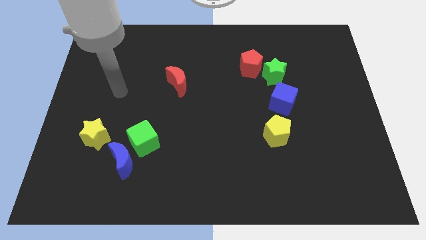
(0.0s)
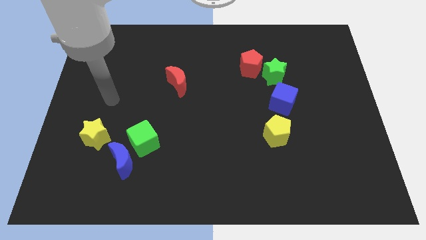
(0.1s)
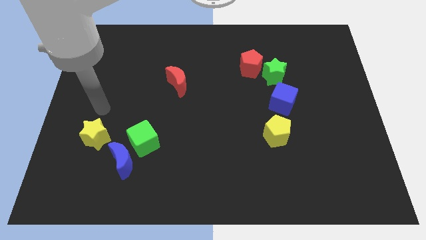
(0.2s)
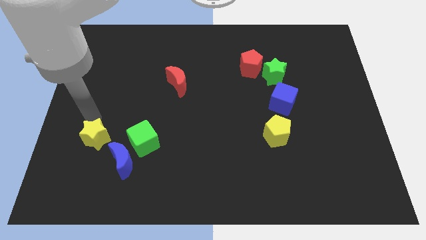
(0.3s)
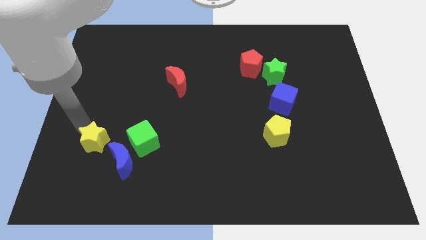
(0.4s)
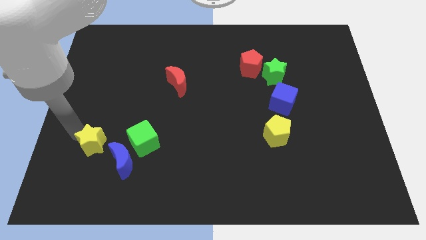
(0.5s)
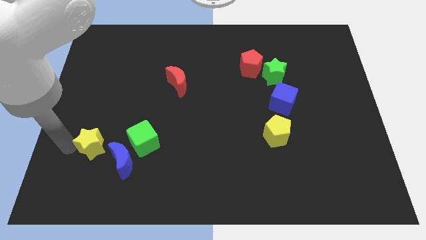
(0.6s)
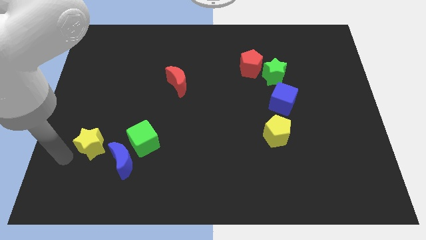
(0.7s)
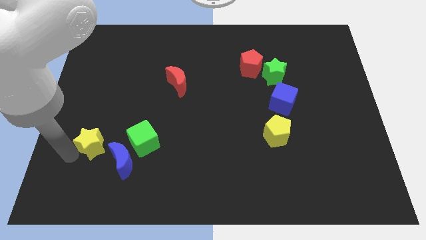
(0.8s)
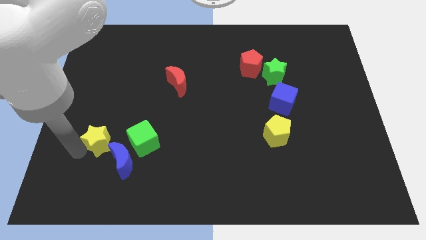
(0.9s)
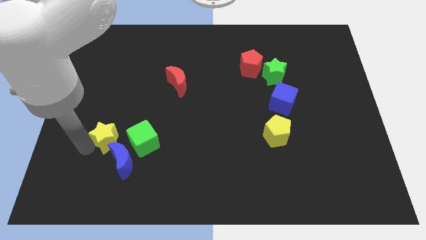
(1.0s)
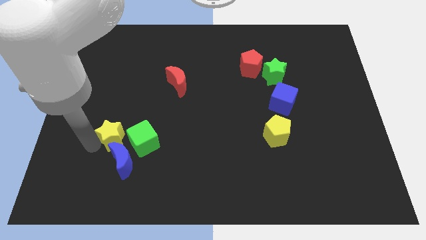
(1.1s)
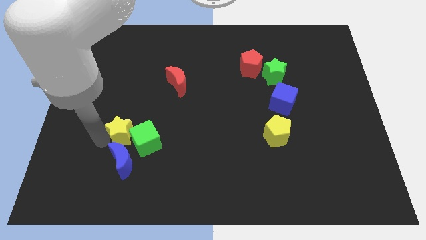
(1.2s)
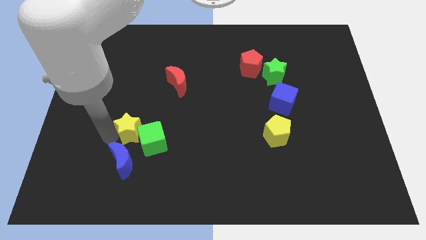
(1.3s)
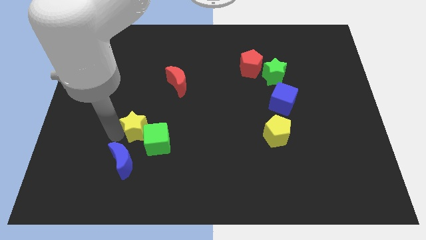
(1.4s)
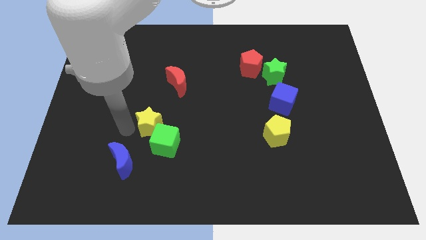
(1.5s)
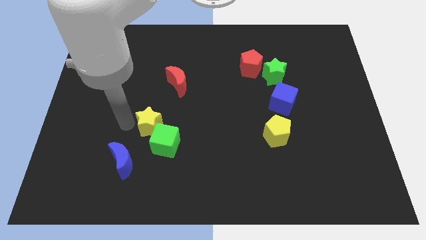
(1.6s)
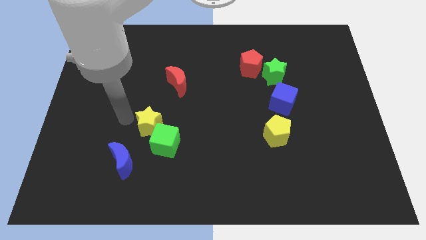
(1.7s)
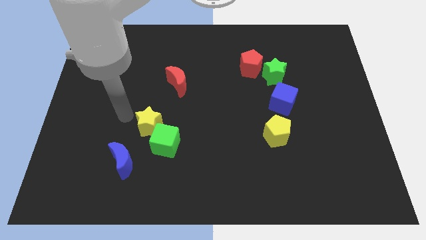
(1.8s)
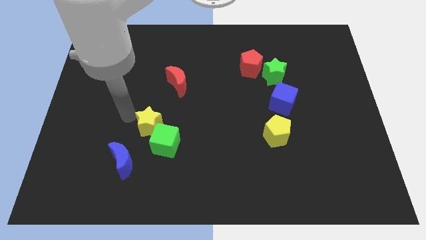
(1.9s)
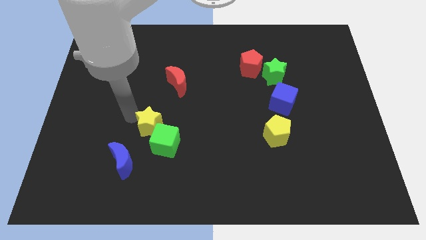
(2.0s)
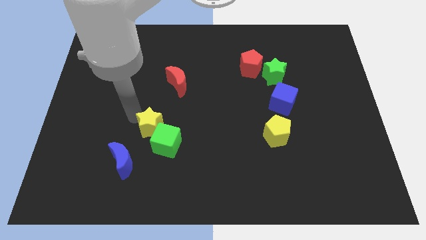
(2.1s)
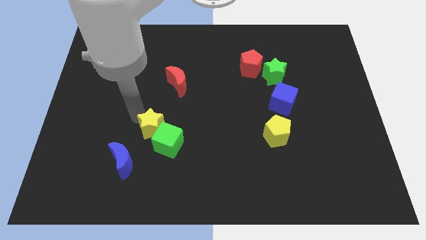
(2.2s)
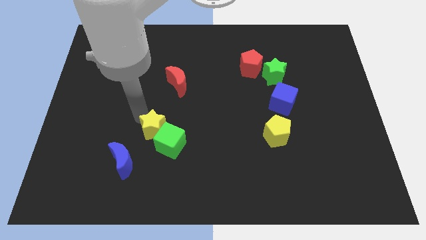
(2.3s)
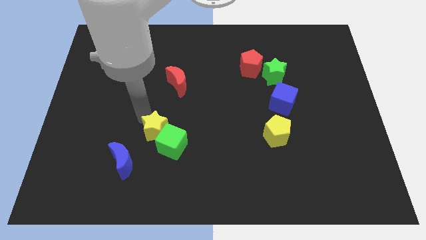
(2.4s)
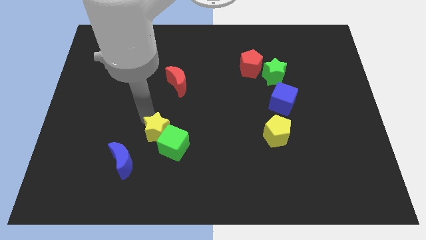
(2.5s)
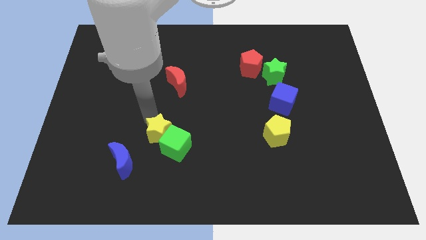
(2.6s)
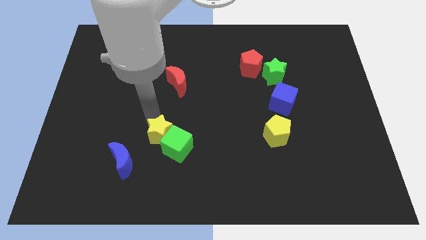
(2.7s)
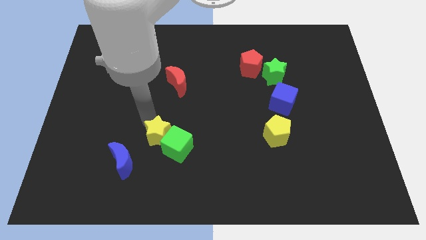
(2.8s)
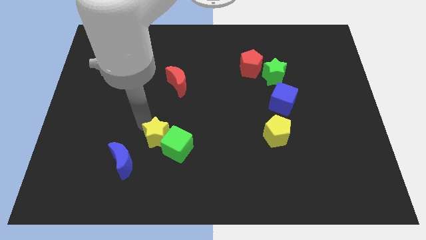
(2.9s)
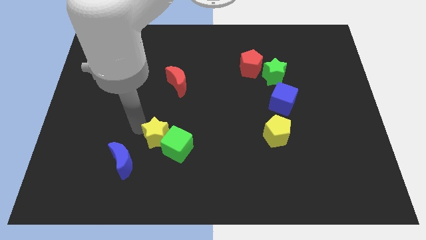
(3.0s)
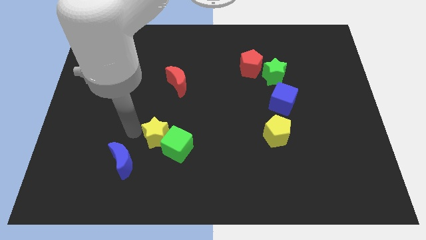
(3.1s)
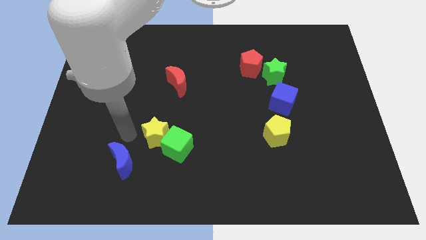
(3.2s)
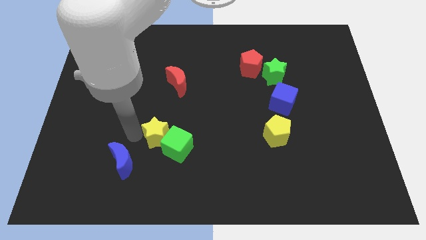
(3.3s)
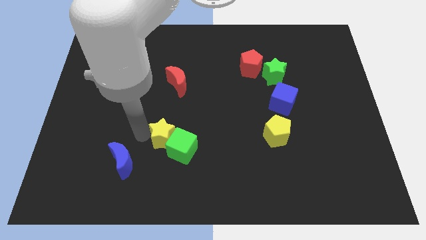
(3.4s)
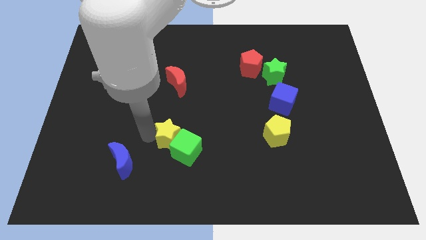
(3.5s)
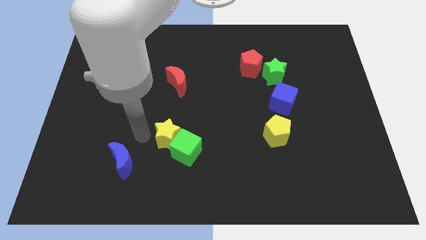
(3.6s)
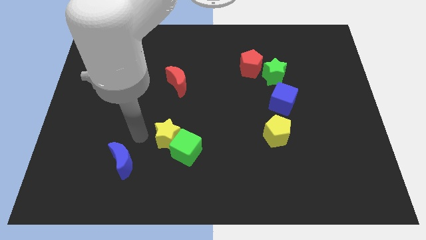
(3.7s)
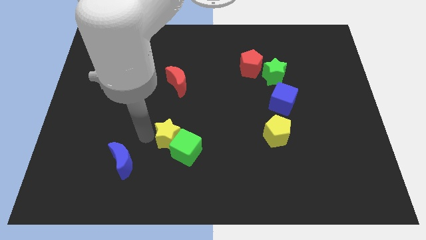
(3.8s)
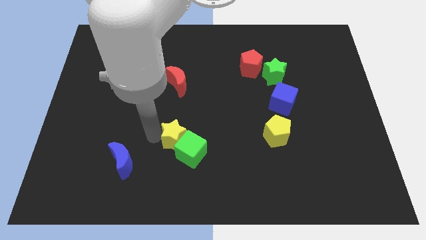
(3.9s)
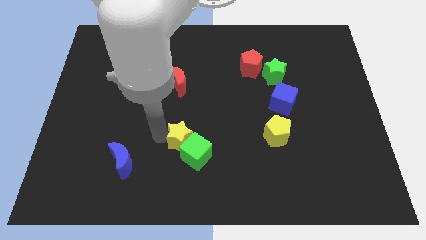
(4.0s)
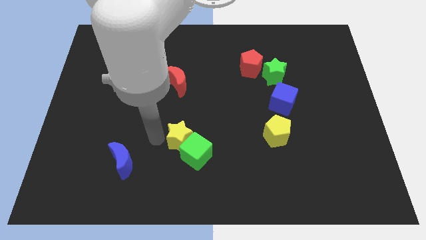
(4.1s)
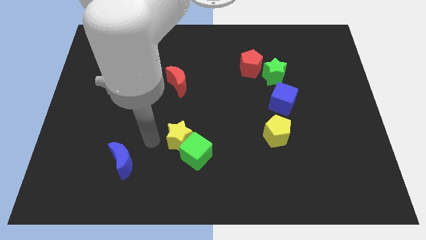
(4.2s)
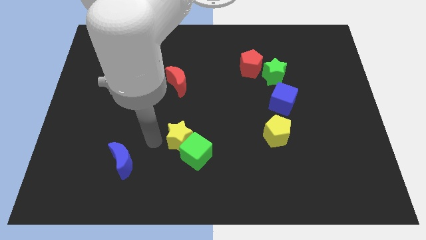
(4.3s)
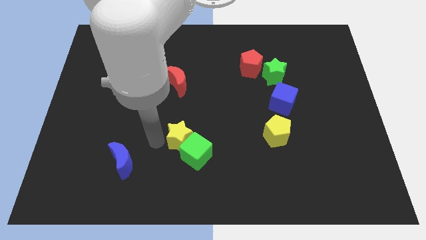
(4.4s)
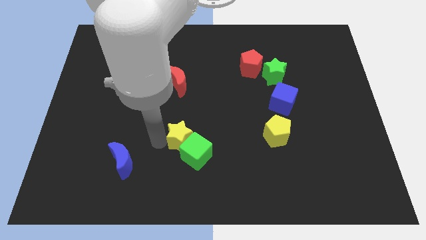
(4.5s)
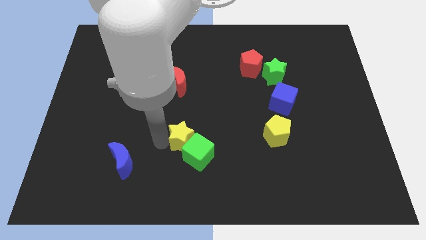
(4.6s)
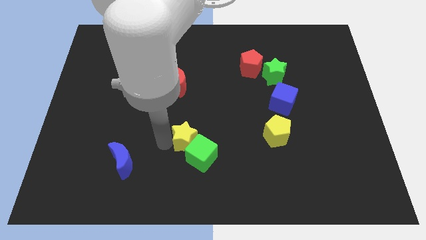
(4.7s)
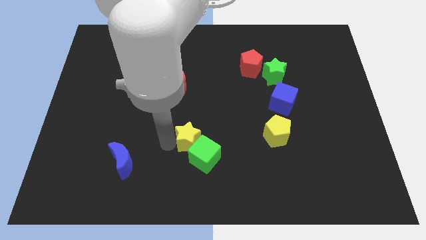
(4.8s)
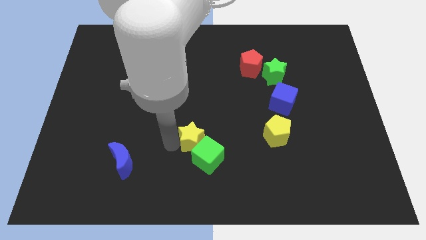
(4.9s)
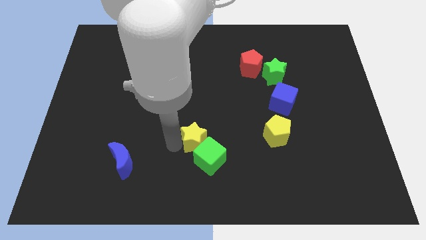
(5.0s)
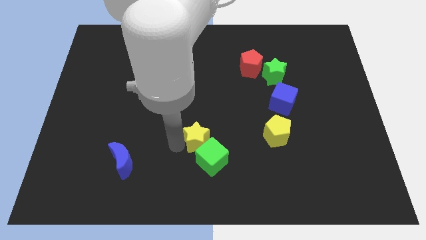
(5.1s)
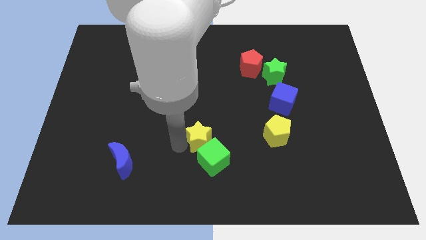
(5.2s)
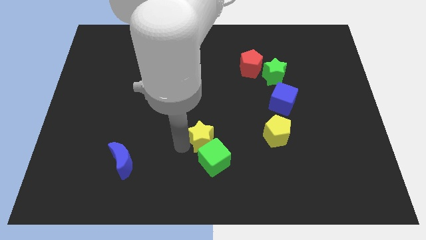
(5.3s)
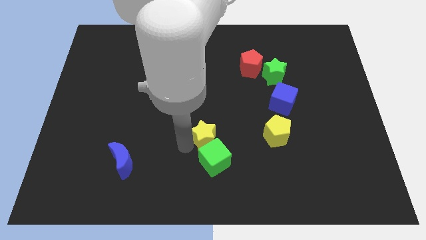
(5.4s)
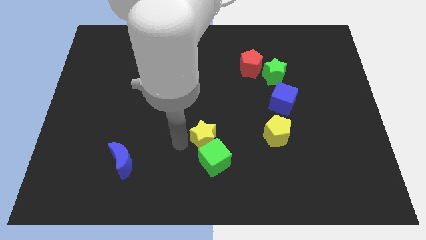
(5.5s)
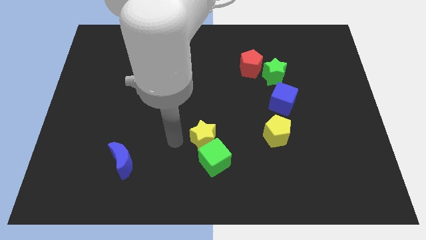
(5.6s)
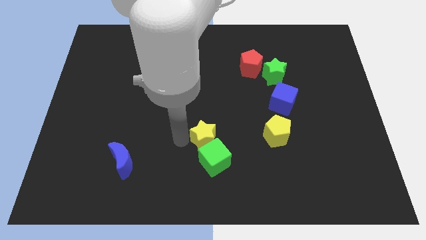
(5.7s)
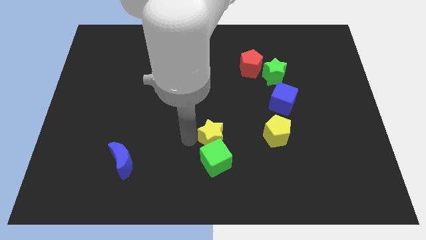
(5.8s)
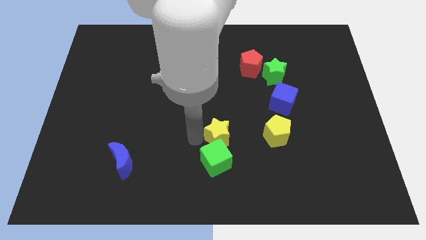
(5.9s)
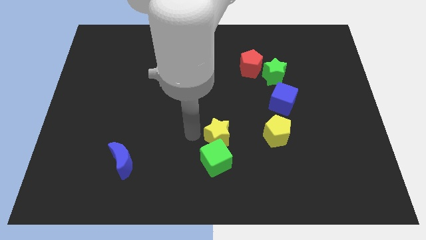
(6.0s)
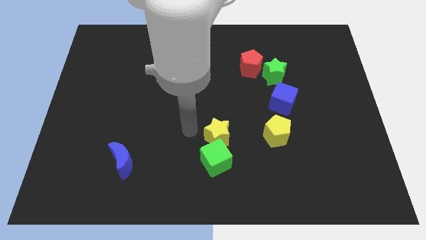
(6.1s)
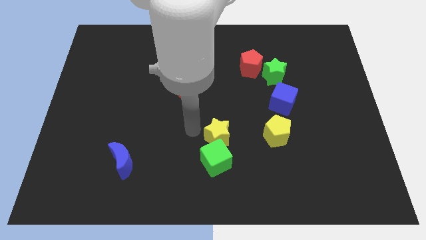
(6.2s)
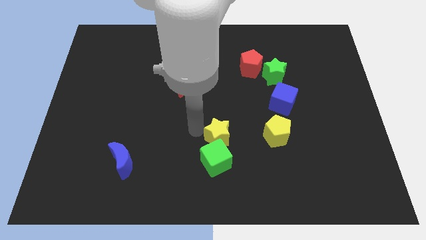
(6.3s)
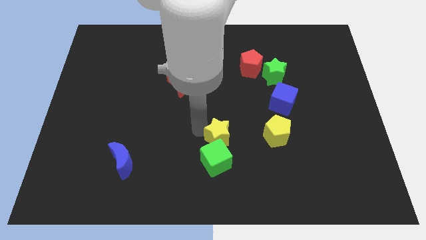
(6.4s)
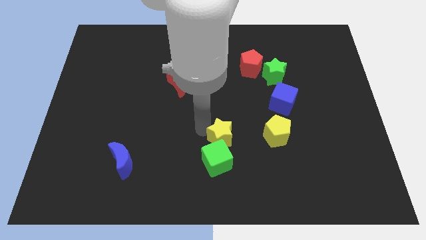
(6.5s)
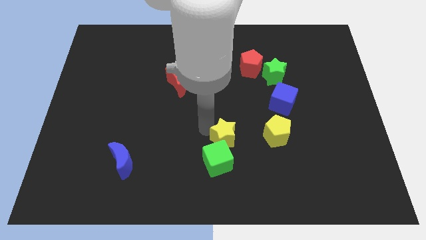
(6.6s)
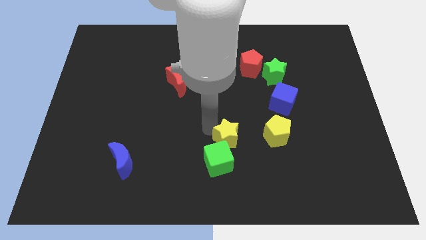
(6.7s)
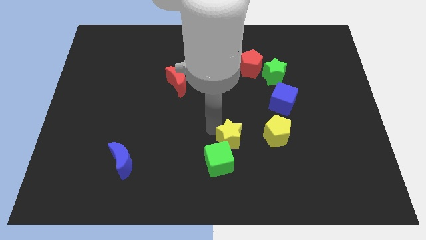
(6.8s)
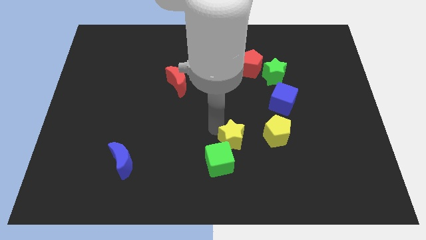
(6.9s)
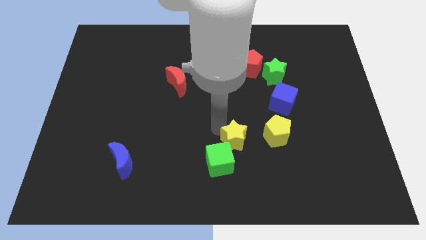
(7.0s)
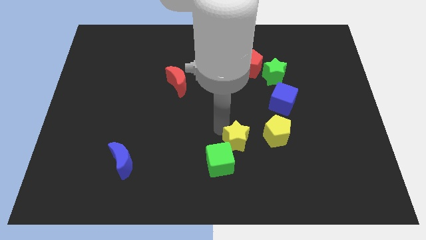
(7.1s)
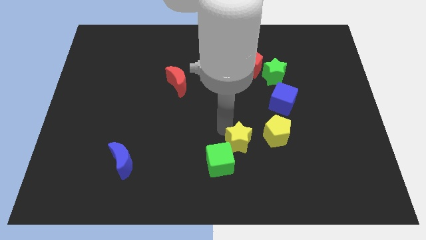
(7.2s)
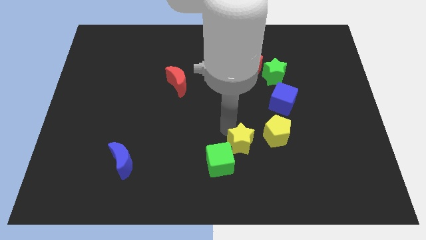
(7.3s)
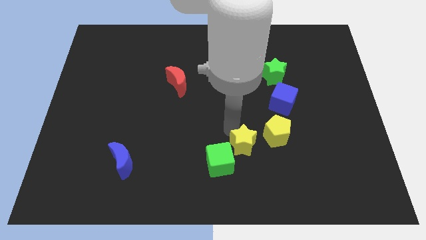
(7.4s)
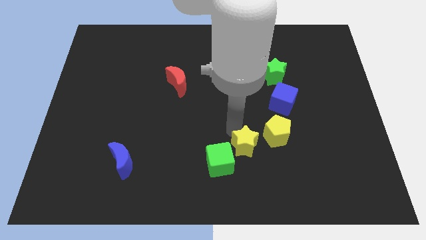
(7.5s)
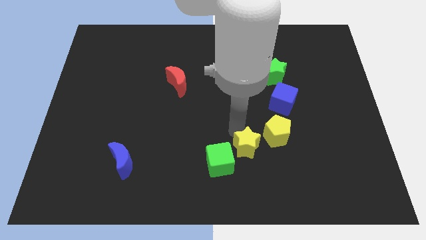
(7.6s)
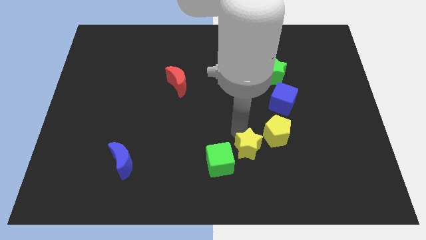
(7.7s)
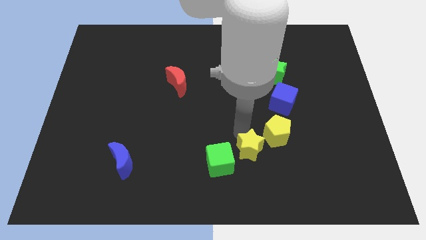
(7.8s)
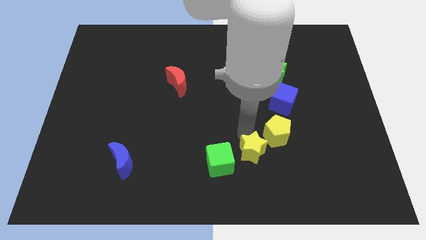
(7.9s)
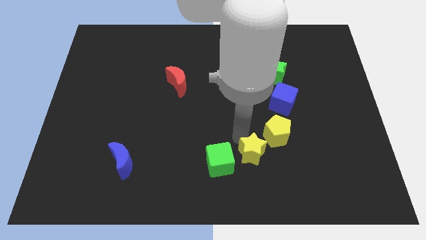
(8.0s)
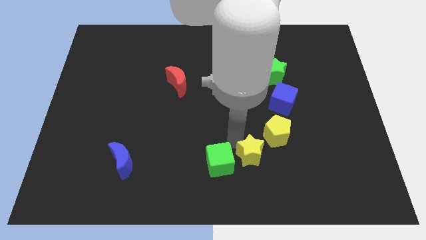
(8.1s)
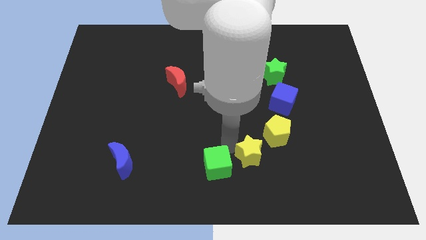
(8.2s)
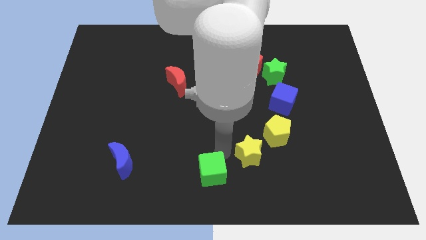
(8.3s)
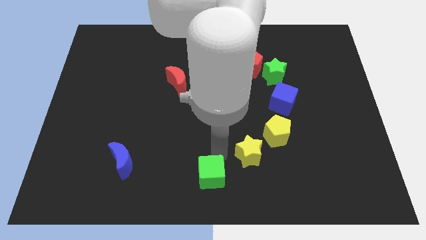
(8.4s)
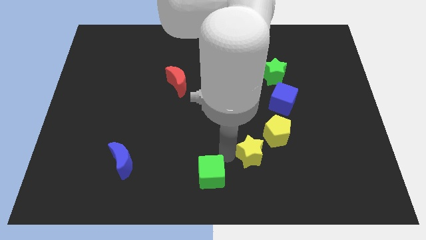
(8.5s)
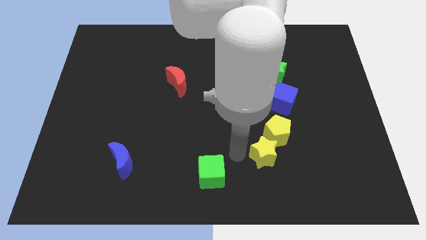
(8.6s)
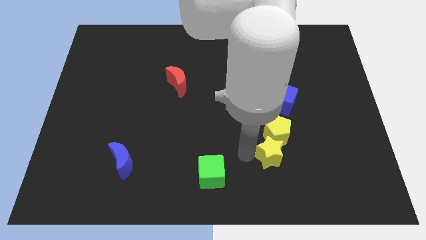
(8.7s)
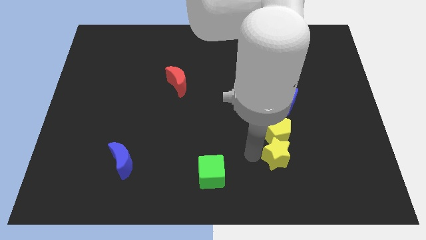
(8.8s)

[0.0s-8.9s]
put the yellow star to the bottom right side of the yellow pentagon
